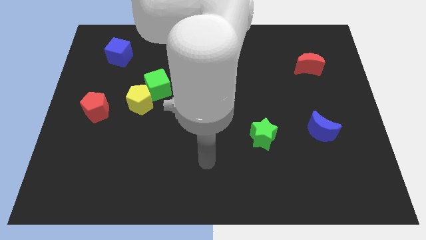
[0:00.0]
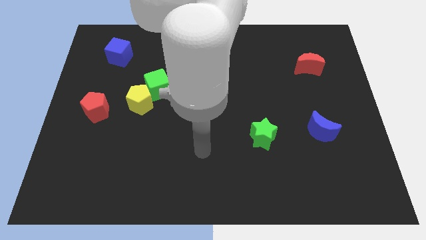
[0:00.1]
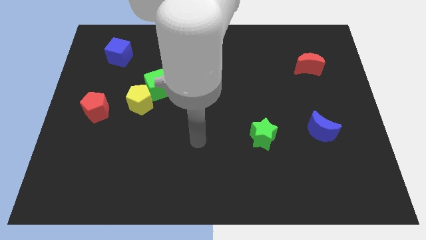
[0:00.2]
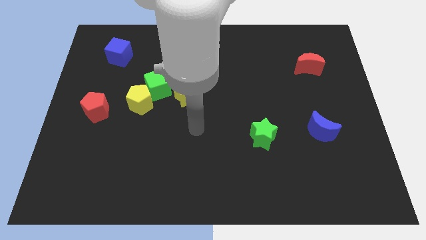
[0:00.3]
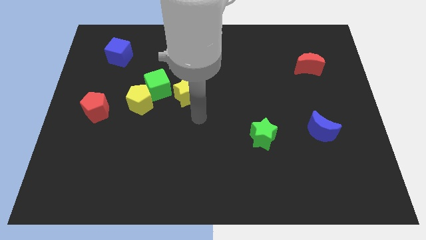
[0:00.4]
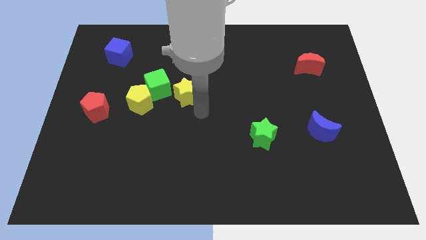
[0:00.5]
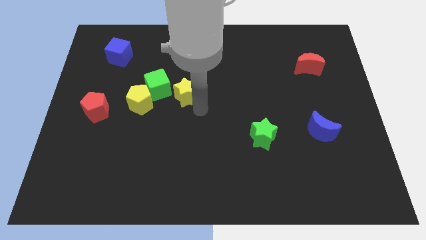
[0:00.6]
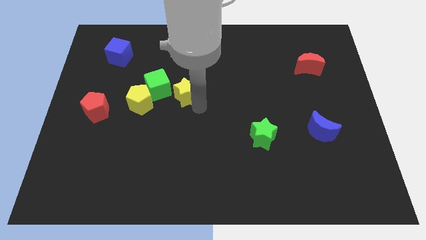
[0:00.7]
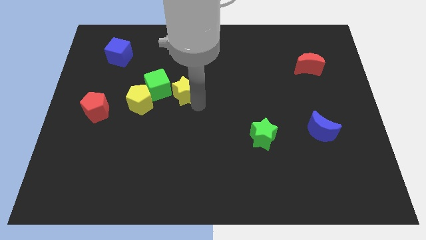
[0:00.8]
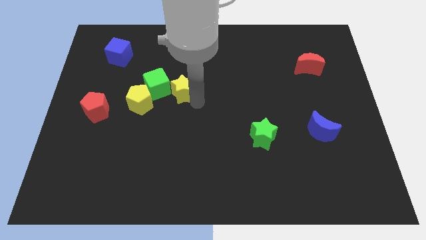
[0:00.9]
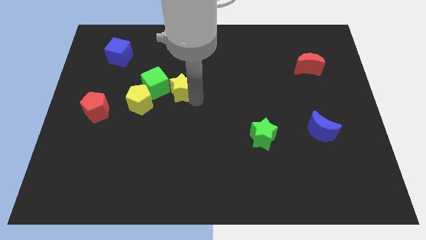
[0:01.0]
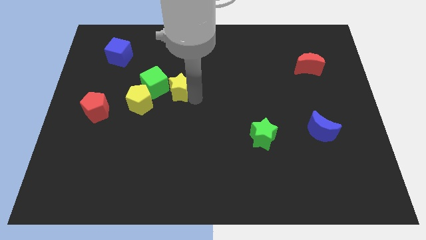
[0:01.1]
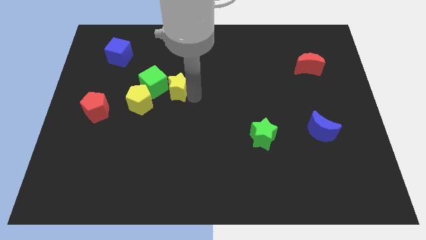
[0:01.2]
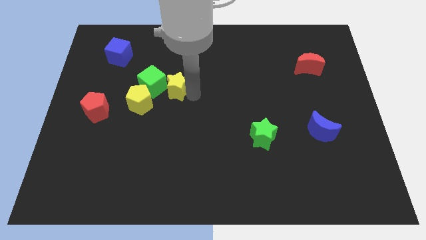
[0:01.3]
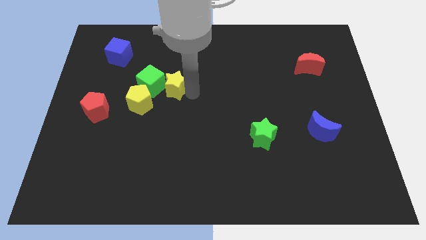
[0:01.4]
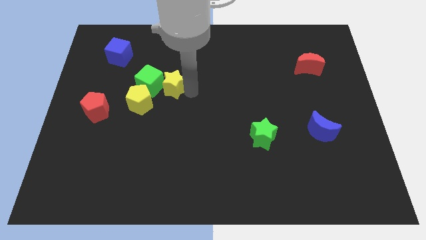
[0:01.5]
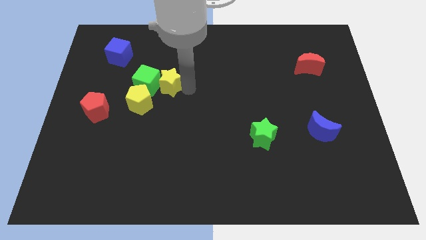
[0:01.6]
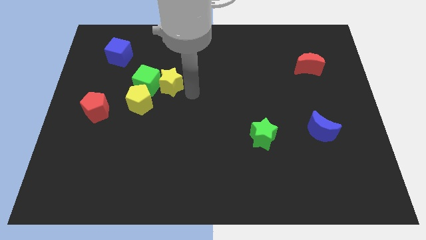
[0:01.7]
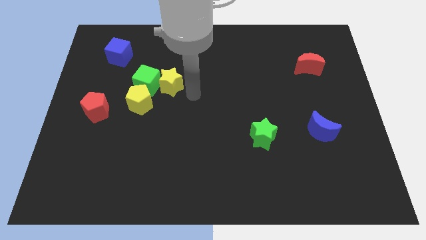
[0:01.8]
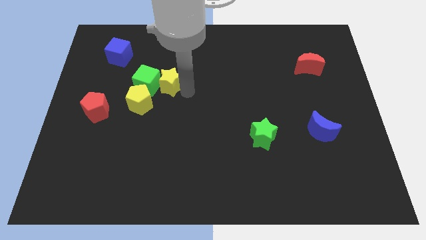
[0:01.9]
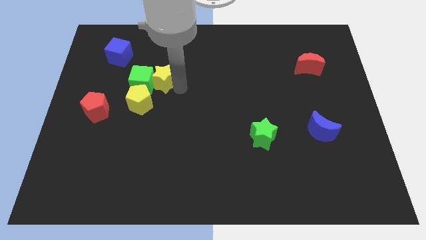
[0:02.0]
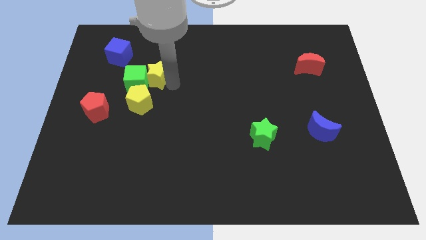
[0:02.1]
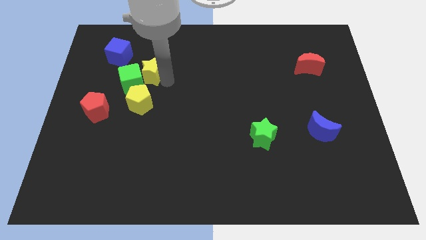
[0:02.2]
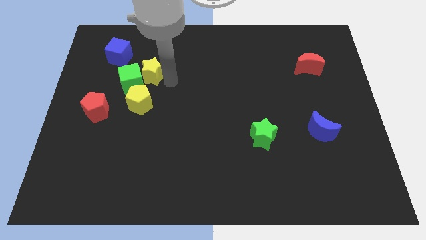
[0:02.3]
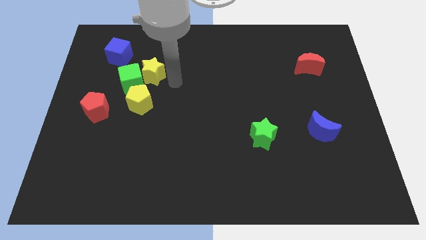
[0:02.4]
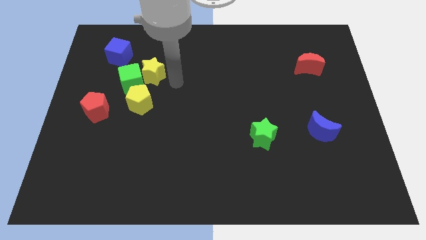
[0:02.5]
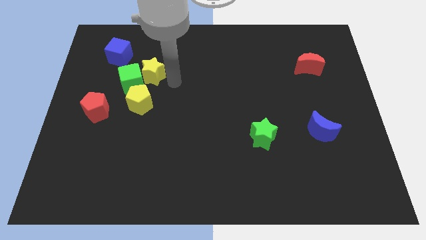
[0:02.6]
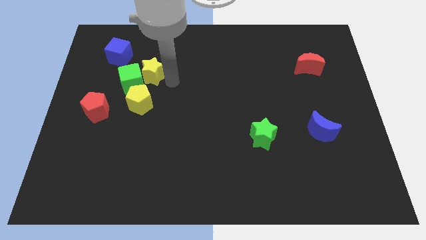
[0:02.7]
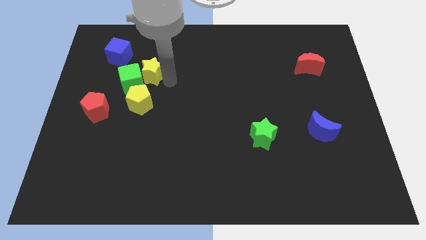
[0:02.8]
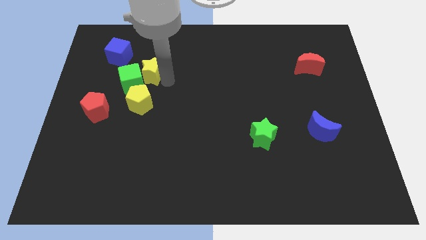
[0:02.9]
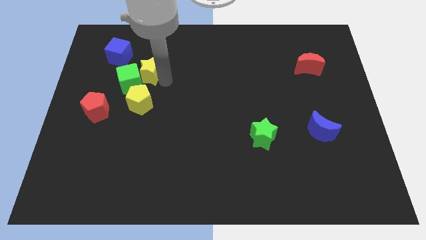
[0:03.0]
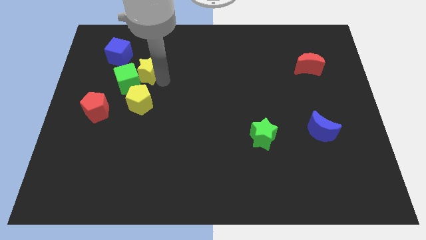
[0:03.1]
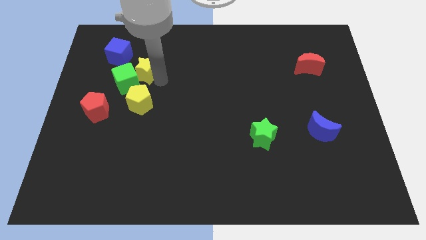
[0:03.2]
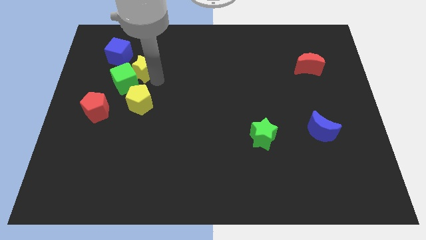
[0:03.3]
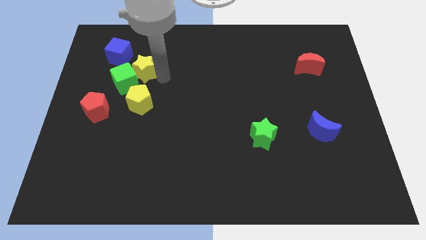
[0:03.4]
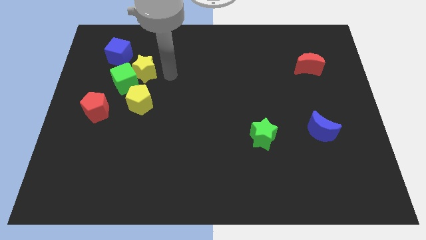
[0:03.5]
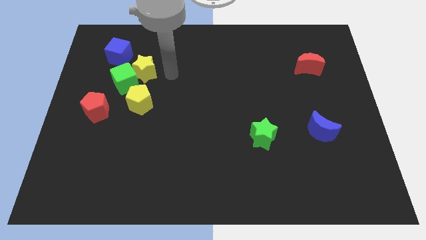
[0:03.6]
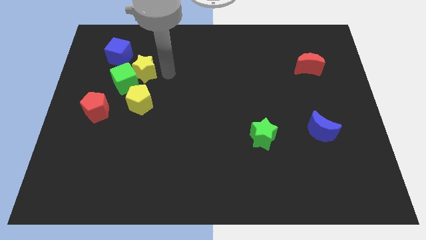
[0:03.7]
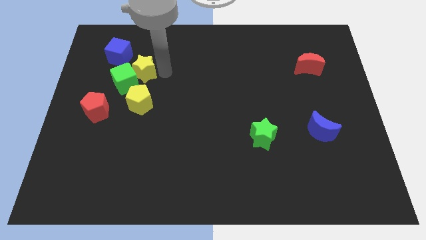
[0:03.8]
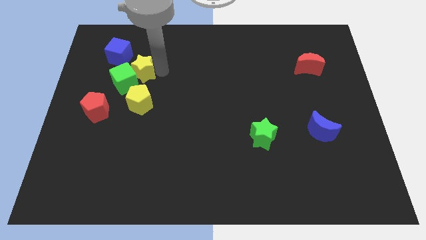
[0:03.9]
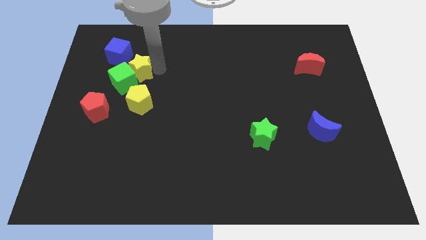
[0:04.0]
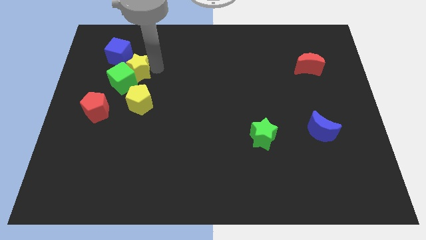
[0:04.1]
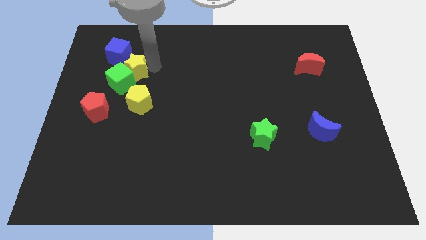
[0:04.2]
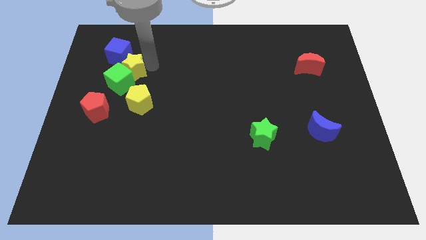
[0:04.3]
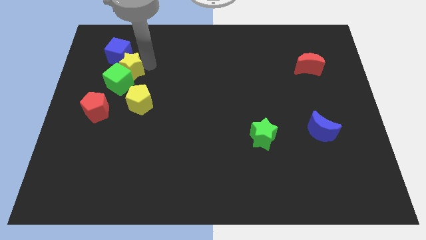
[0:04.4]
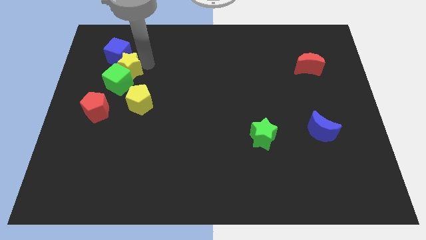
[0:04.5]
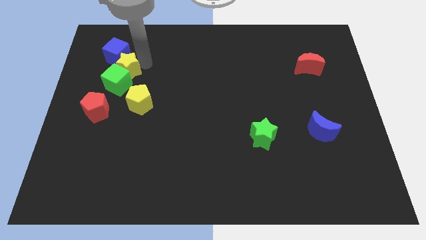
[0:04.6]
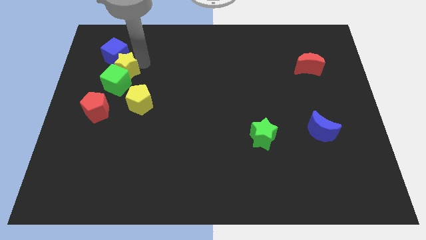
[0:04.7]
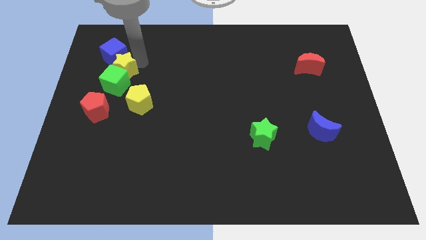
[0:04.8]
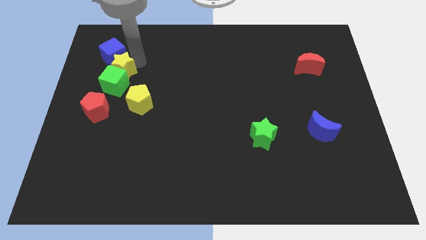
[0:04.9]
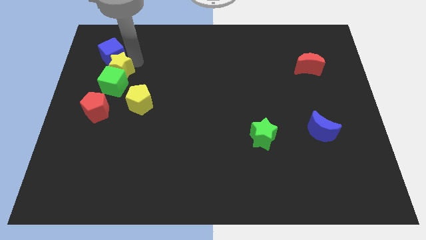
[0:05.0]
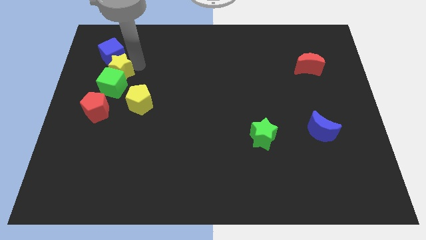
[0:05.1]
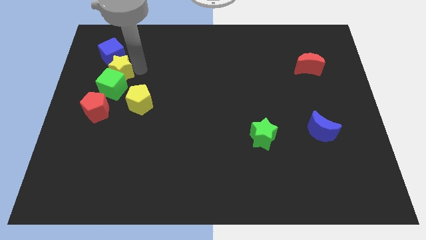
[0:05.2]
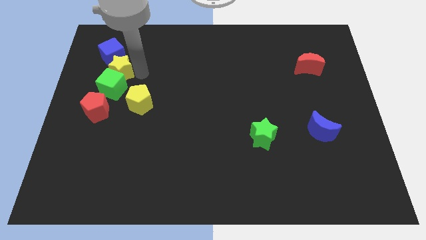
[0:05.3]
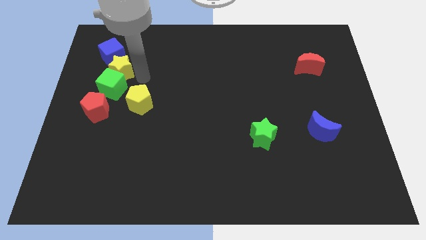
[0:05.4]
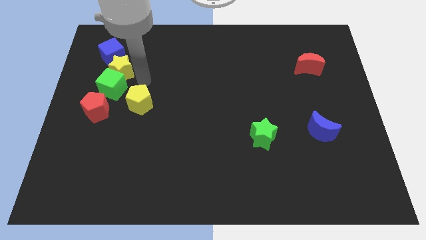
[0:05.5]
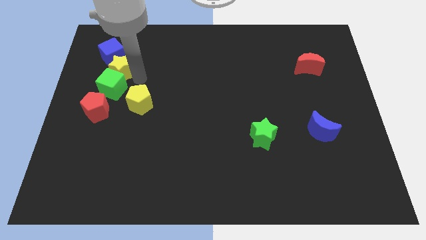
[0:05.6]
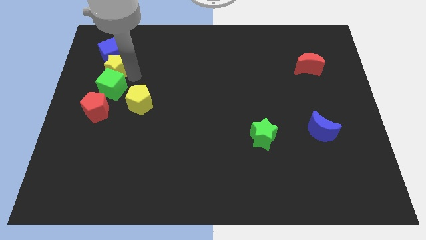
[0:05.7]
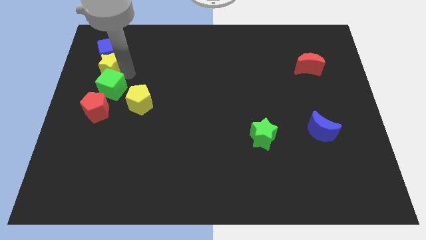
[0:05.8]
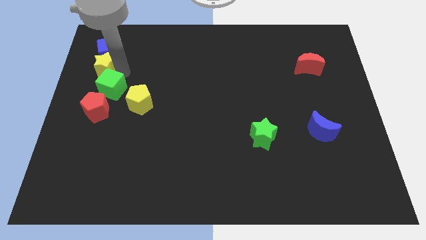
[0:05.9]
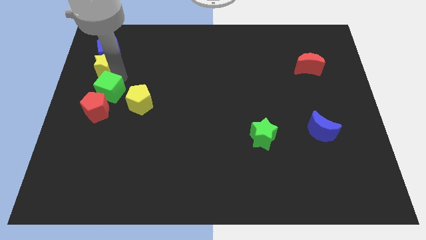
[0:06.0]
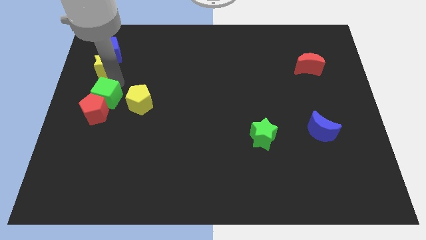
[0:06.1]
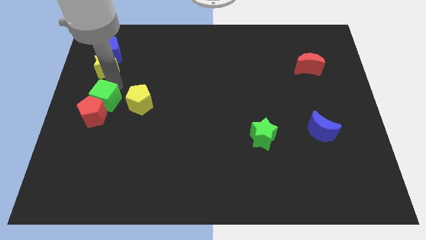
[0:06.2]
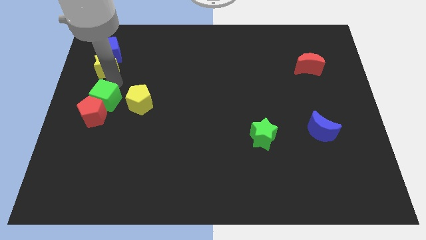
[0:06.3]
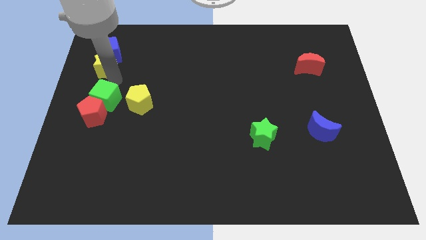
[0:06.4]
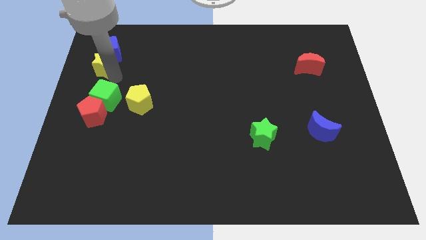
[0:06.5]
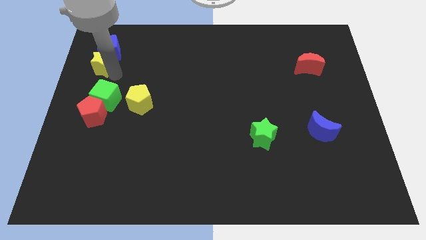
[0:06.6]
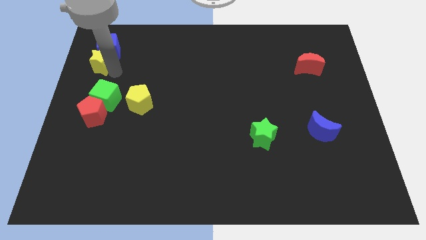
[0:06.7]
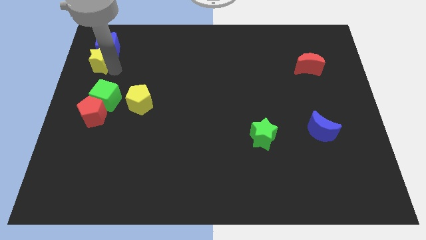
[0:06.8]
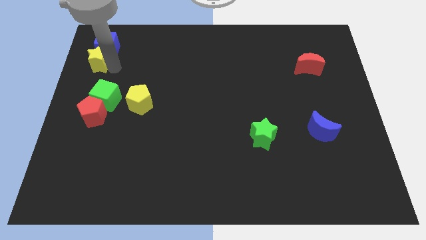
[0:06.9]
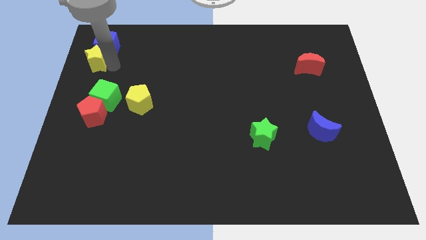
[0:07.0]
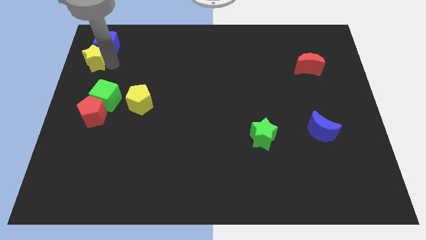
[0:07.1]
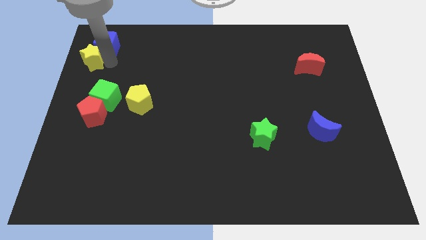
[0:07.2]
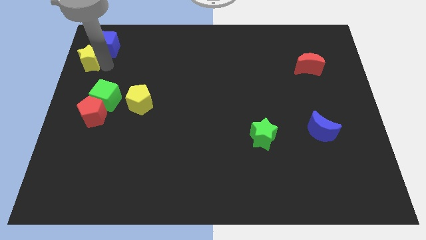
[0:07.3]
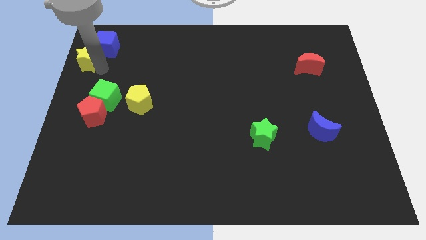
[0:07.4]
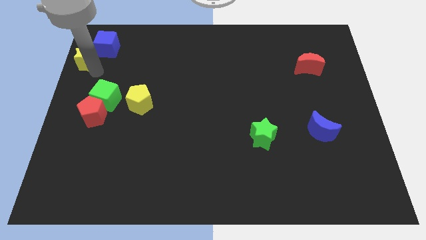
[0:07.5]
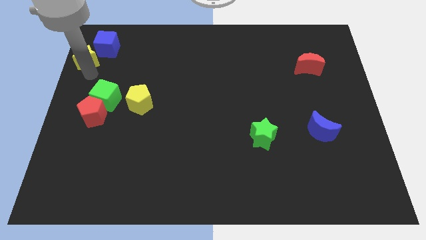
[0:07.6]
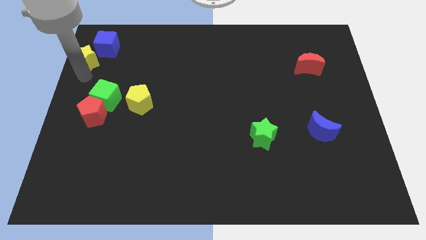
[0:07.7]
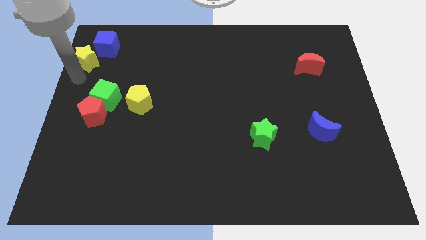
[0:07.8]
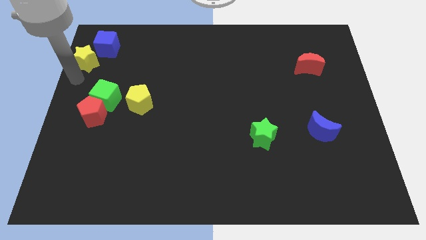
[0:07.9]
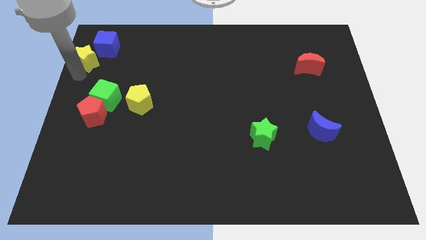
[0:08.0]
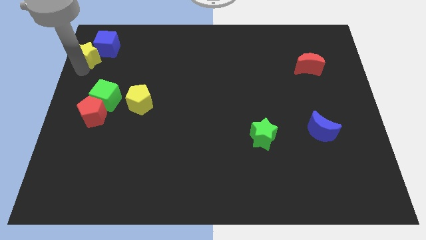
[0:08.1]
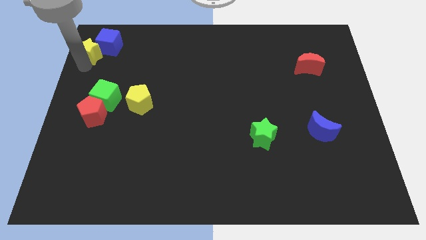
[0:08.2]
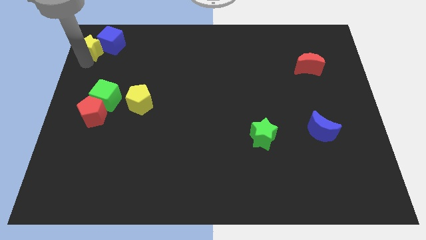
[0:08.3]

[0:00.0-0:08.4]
slide the yellow star to the top left

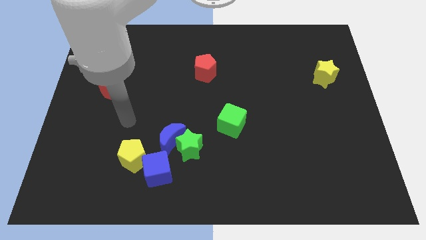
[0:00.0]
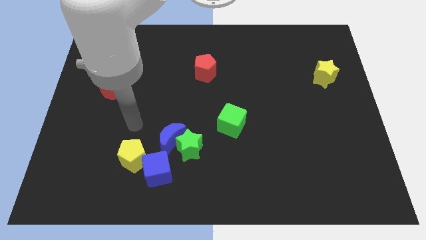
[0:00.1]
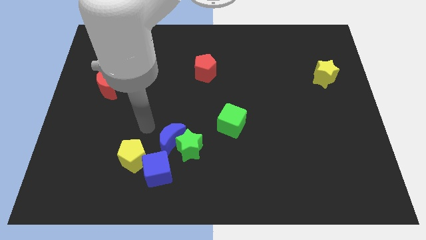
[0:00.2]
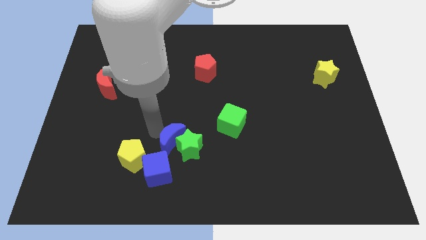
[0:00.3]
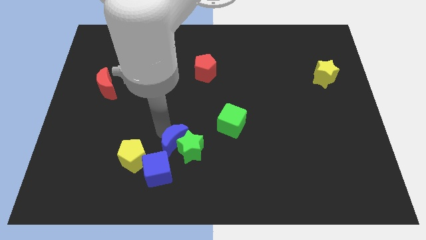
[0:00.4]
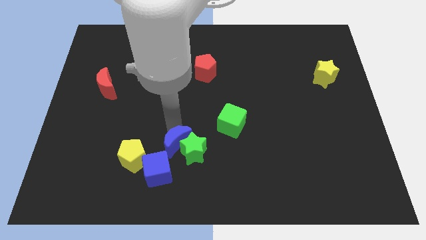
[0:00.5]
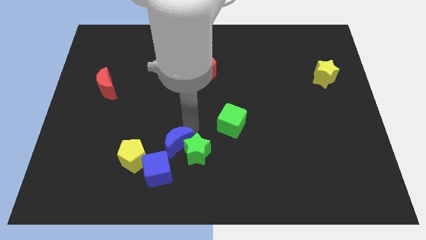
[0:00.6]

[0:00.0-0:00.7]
move the green star to the bottom side
